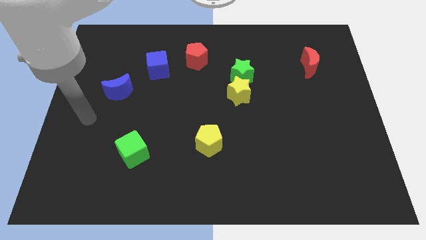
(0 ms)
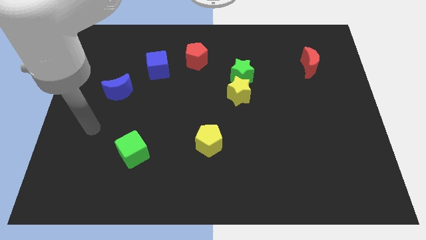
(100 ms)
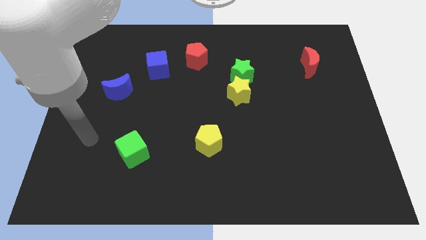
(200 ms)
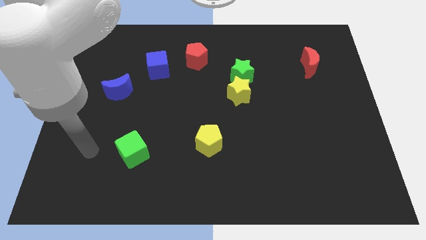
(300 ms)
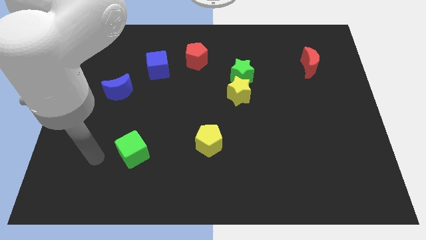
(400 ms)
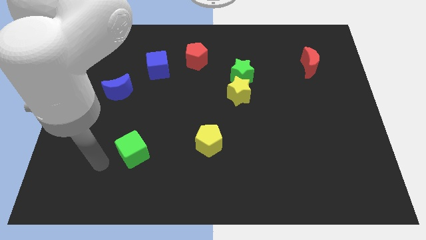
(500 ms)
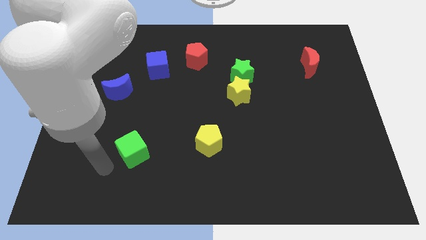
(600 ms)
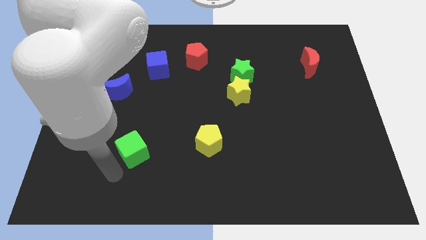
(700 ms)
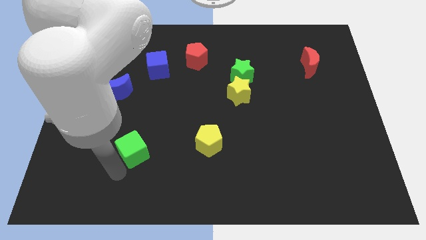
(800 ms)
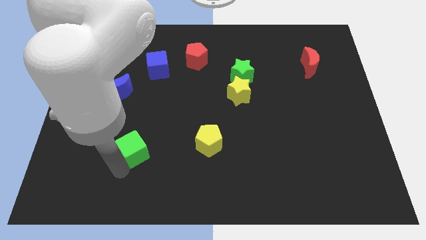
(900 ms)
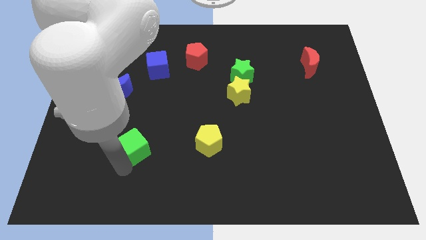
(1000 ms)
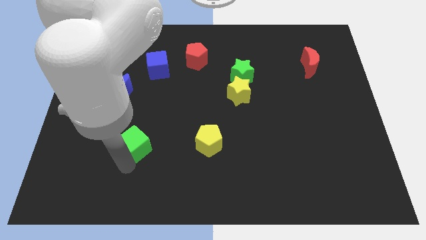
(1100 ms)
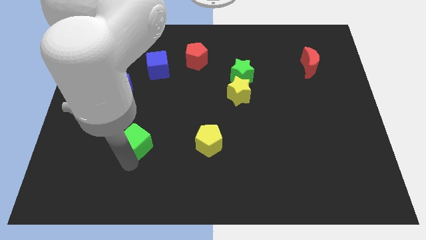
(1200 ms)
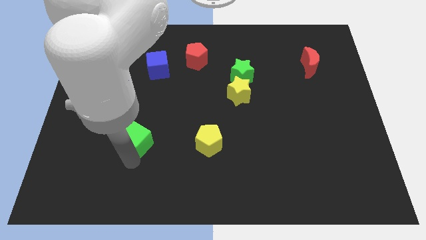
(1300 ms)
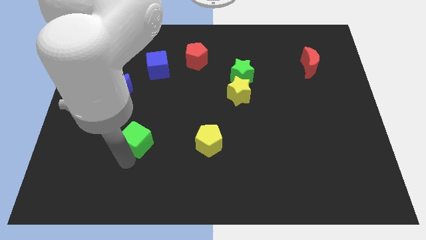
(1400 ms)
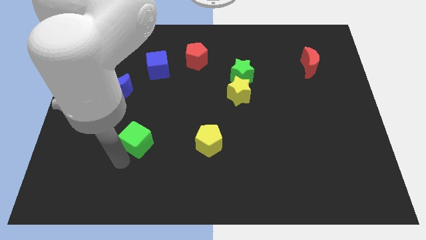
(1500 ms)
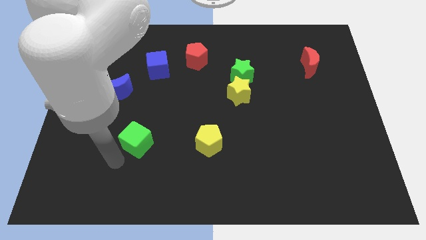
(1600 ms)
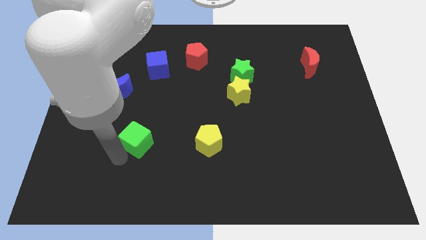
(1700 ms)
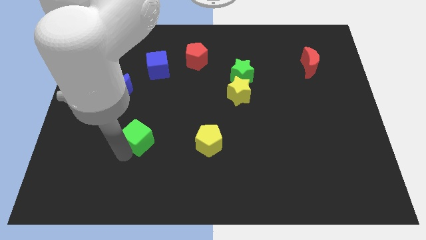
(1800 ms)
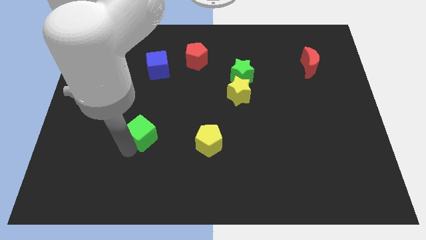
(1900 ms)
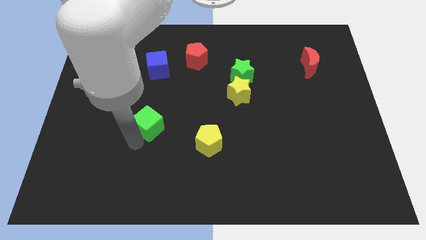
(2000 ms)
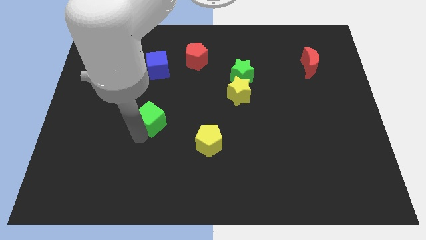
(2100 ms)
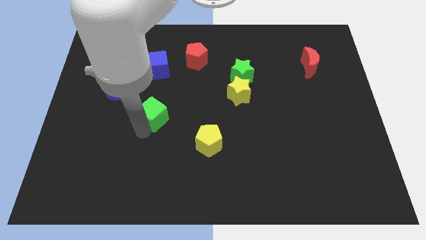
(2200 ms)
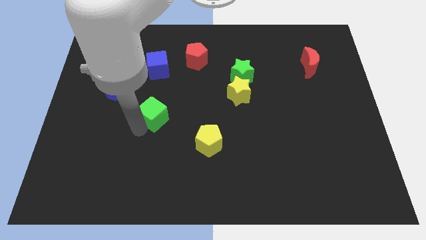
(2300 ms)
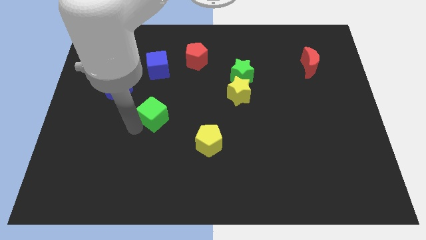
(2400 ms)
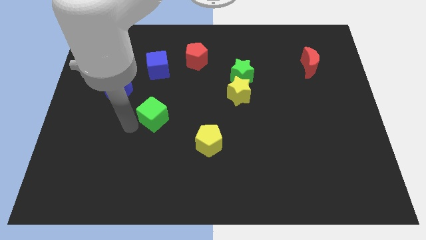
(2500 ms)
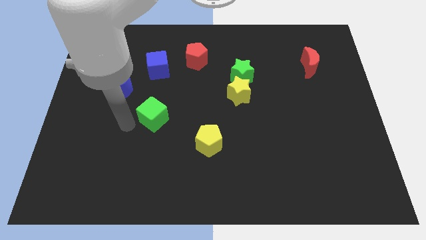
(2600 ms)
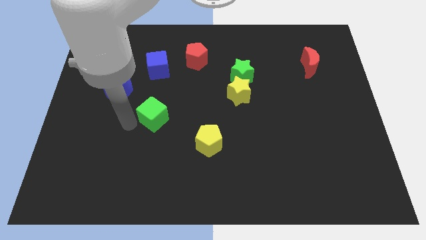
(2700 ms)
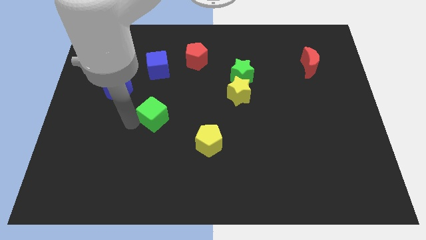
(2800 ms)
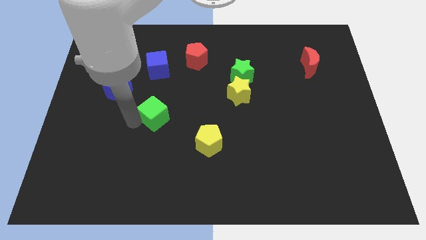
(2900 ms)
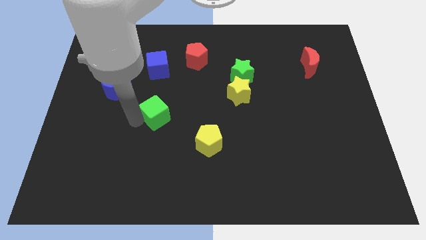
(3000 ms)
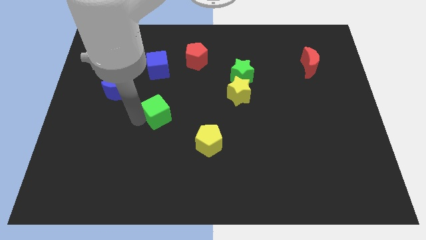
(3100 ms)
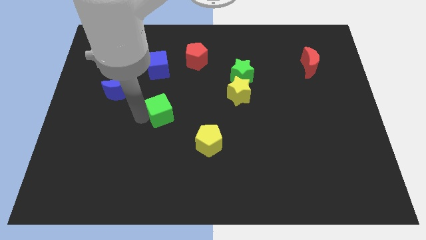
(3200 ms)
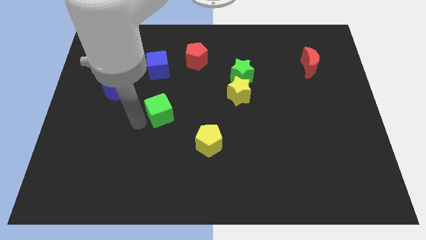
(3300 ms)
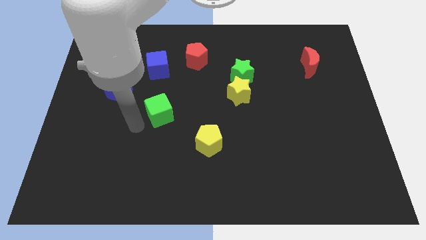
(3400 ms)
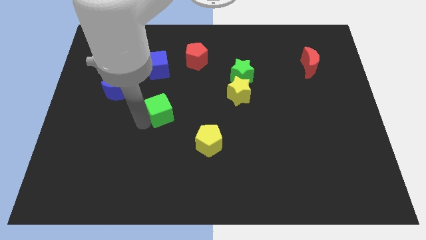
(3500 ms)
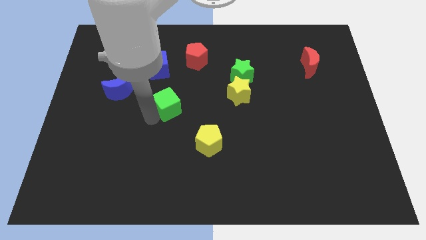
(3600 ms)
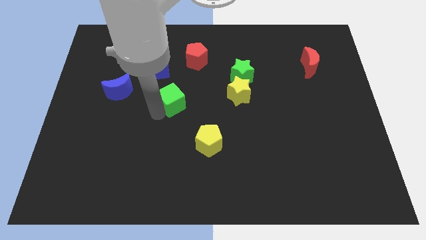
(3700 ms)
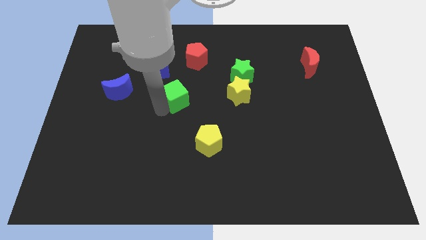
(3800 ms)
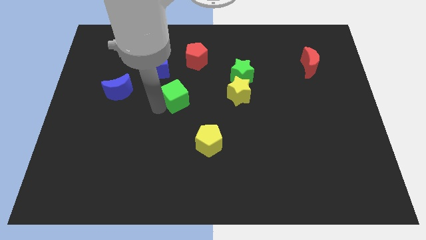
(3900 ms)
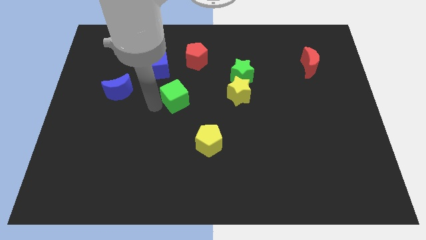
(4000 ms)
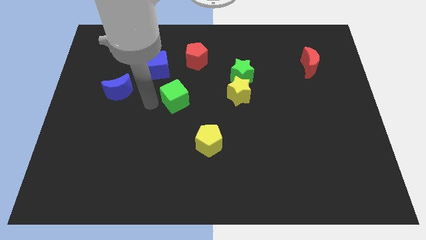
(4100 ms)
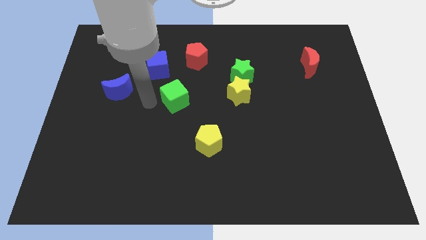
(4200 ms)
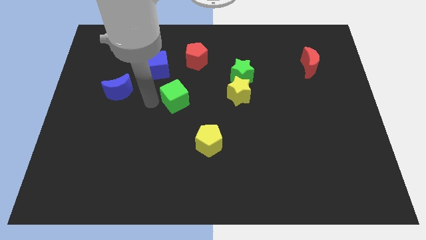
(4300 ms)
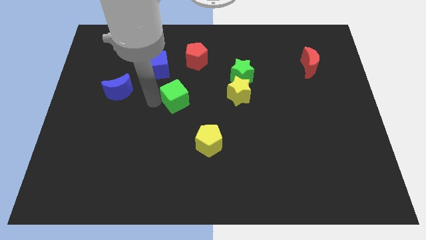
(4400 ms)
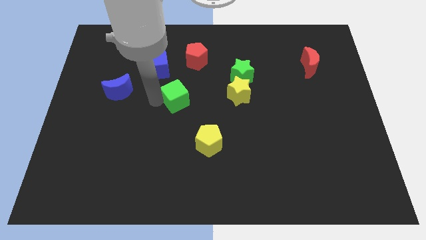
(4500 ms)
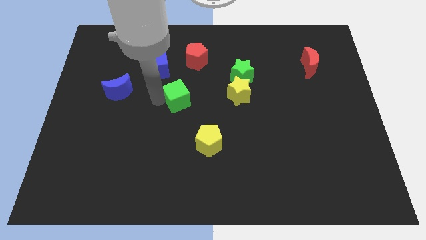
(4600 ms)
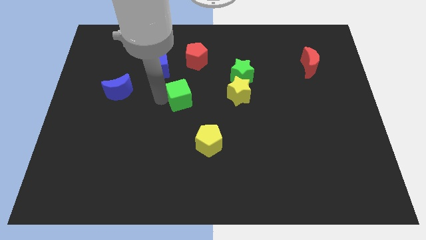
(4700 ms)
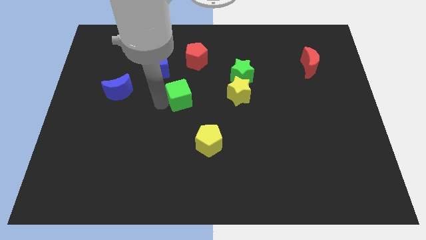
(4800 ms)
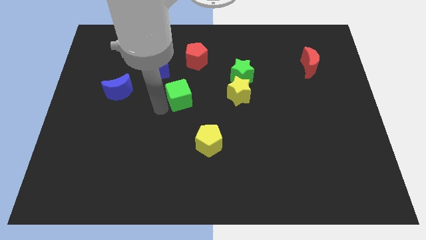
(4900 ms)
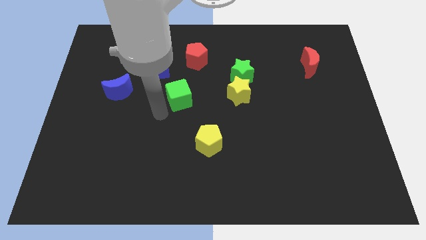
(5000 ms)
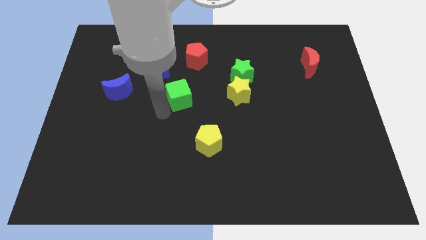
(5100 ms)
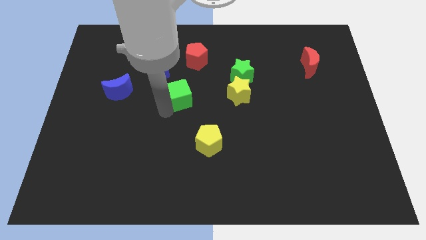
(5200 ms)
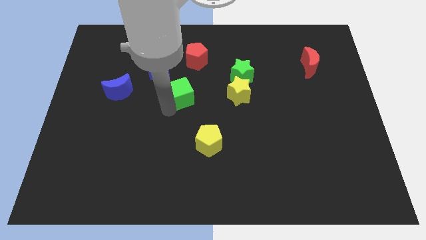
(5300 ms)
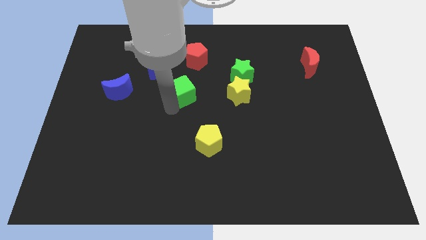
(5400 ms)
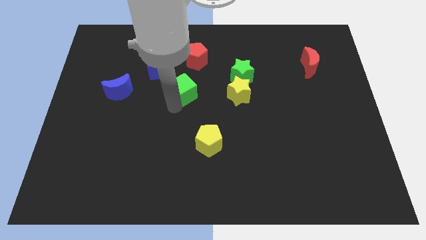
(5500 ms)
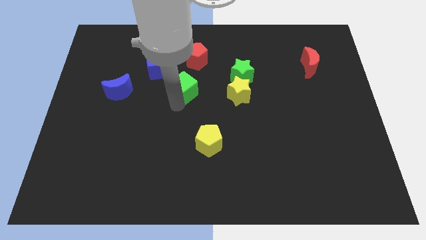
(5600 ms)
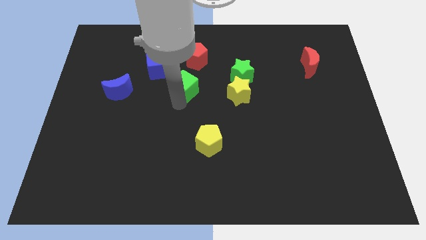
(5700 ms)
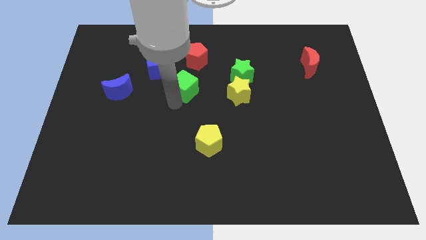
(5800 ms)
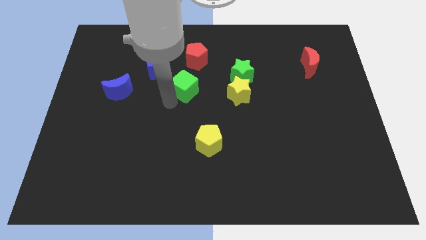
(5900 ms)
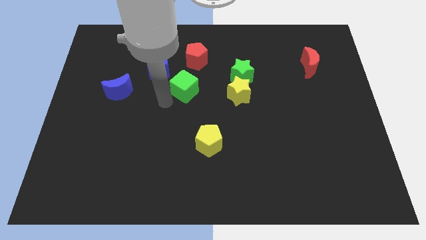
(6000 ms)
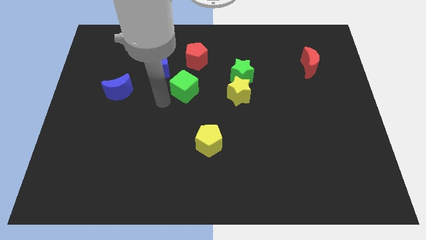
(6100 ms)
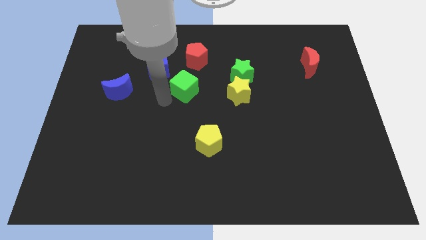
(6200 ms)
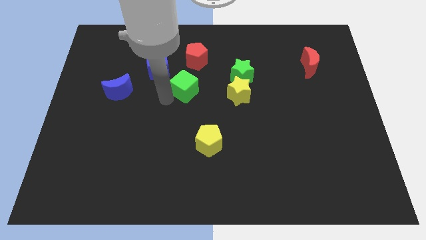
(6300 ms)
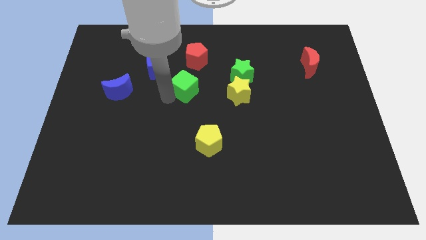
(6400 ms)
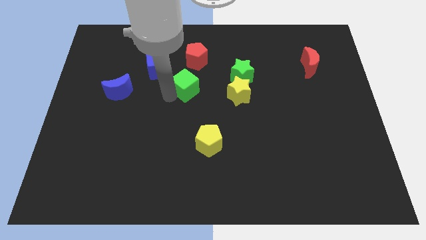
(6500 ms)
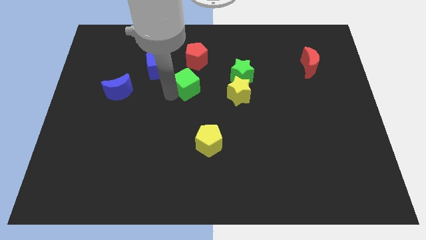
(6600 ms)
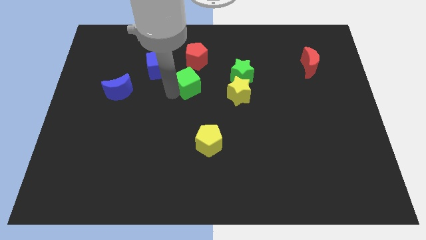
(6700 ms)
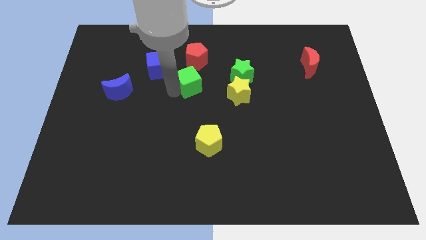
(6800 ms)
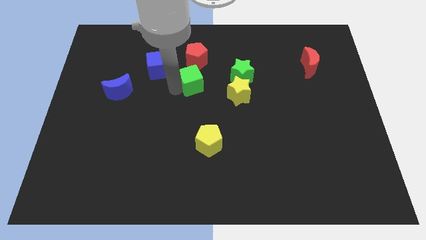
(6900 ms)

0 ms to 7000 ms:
put the green cube to the right side of the blue cube
